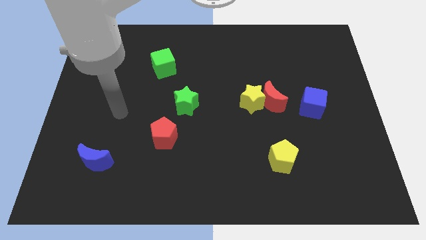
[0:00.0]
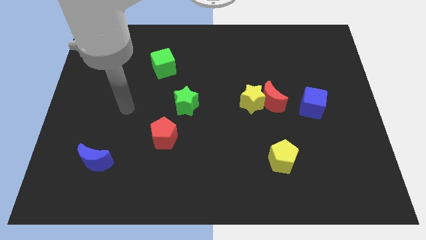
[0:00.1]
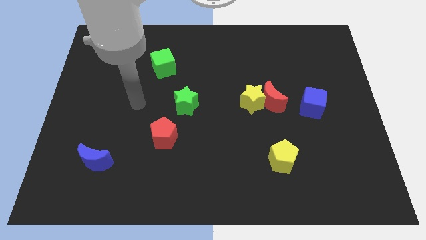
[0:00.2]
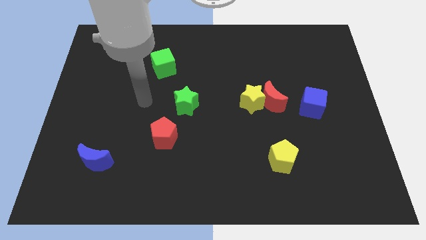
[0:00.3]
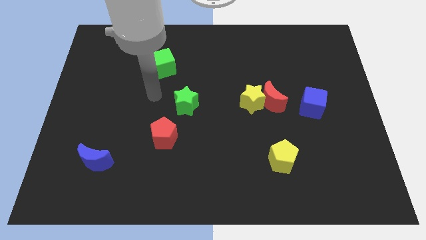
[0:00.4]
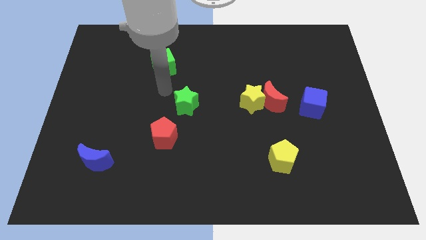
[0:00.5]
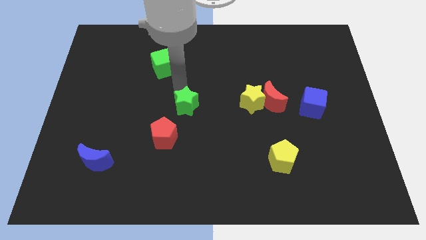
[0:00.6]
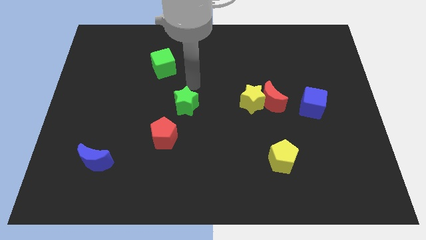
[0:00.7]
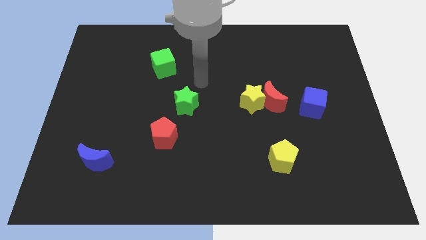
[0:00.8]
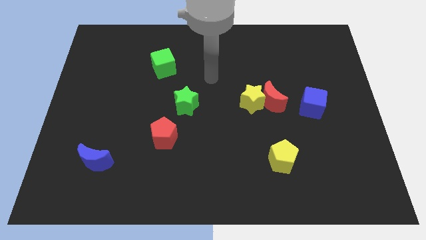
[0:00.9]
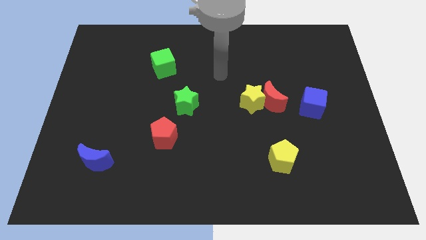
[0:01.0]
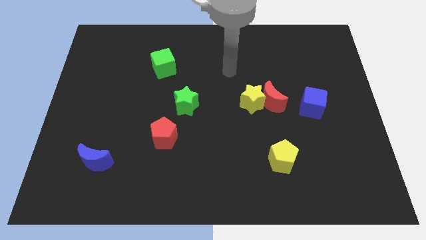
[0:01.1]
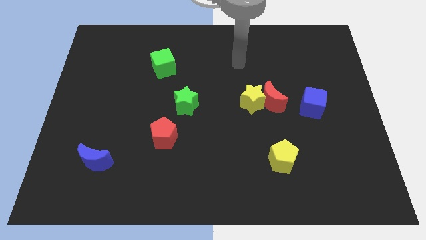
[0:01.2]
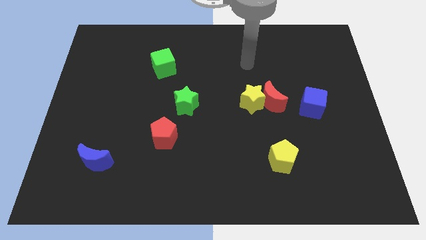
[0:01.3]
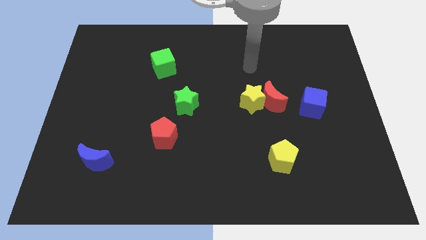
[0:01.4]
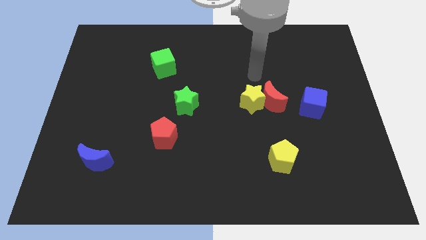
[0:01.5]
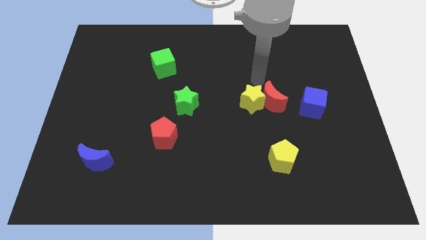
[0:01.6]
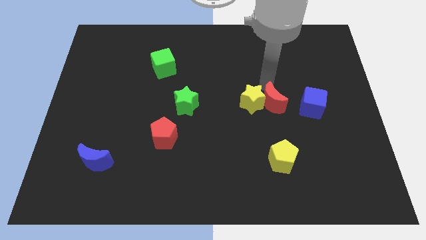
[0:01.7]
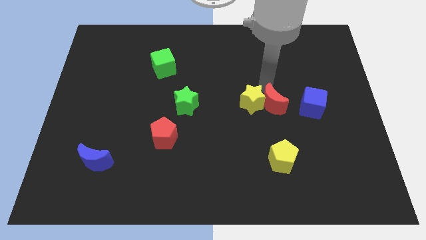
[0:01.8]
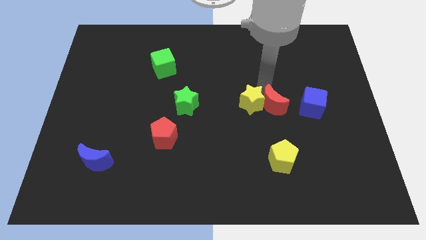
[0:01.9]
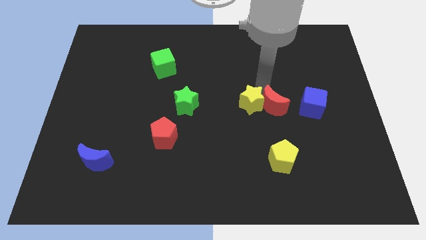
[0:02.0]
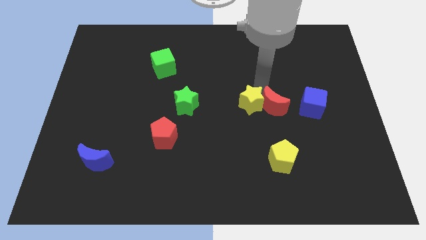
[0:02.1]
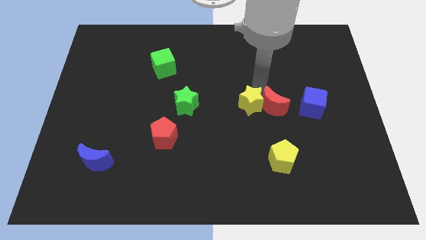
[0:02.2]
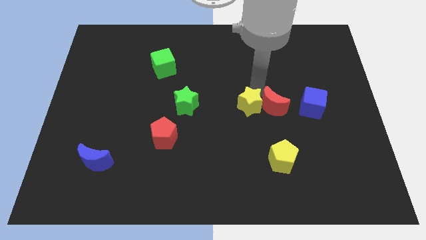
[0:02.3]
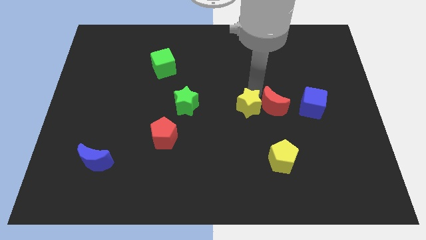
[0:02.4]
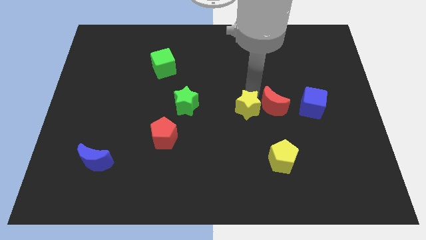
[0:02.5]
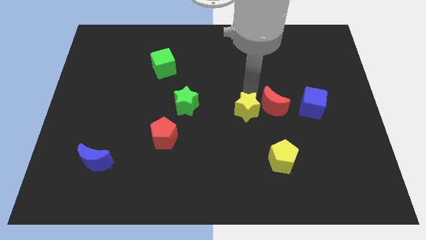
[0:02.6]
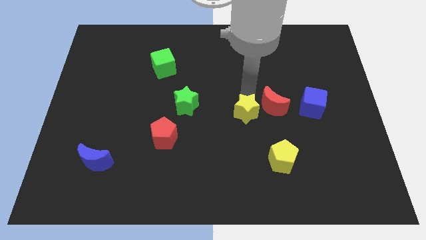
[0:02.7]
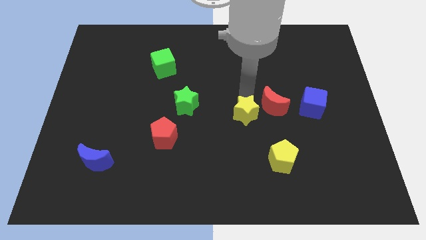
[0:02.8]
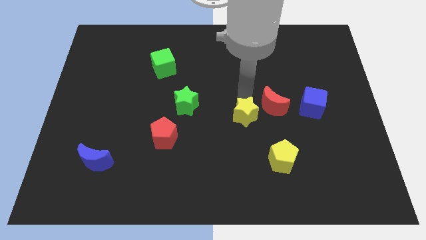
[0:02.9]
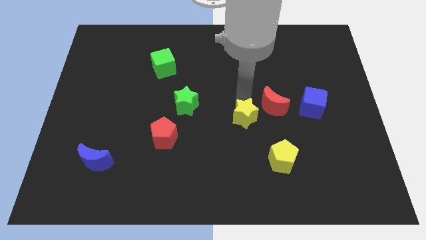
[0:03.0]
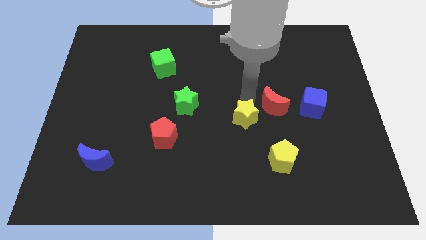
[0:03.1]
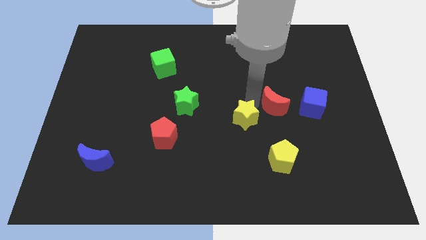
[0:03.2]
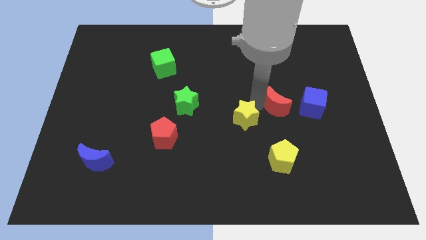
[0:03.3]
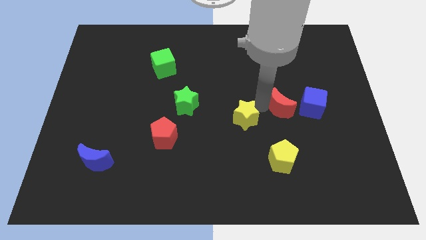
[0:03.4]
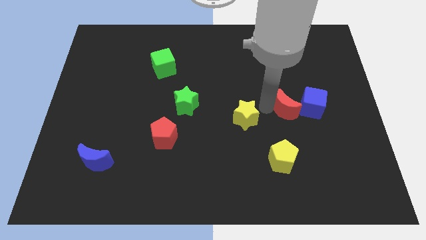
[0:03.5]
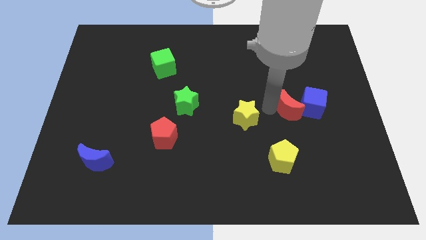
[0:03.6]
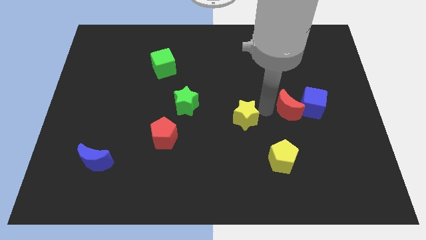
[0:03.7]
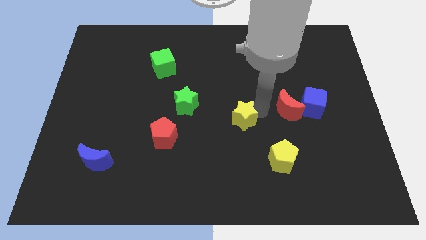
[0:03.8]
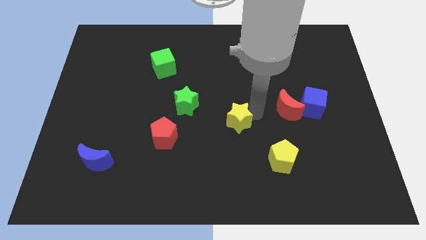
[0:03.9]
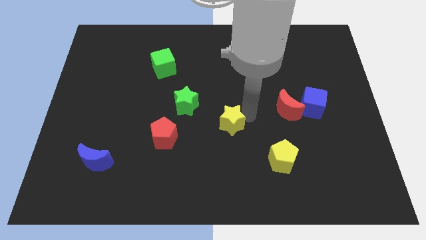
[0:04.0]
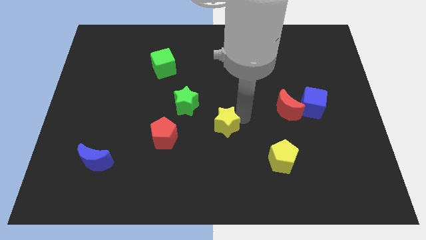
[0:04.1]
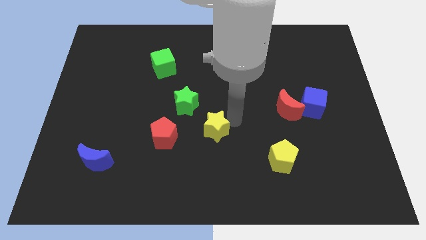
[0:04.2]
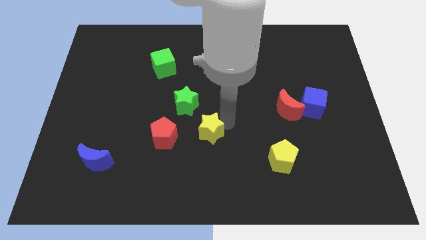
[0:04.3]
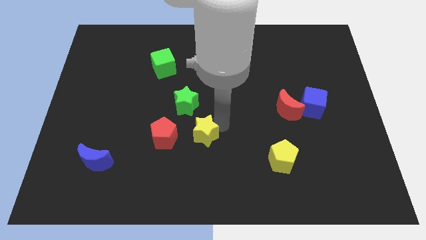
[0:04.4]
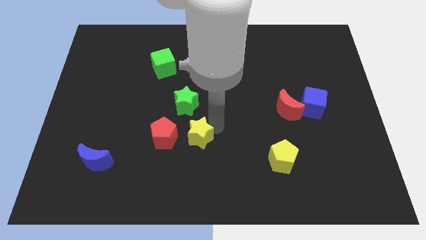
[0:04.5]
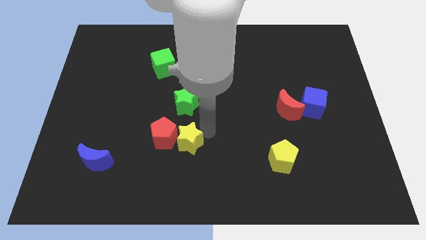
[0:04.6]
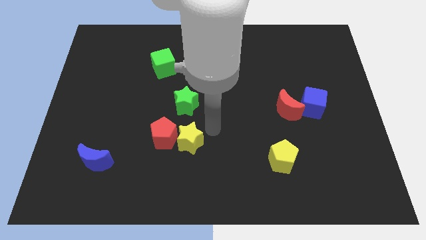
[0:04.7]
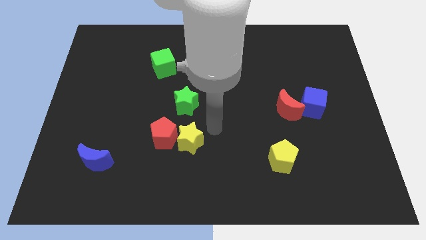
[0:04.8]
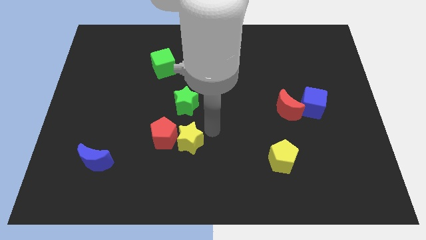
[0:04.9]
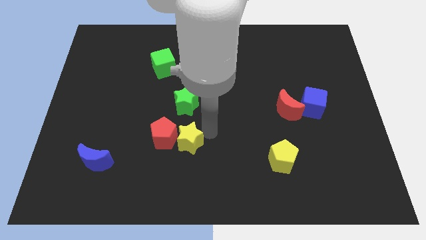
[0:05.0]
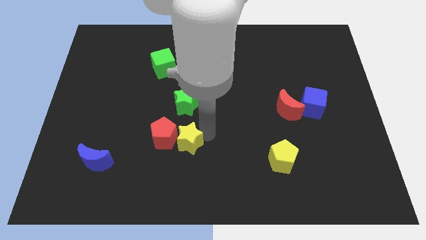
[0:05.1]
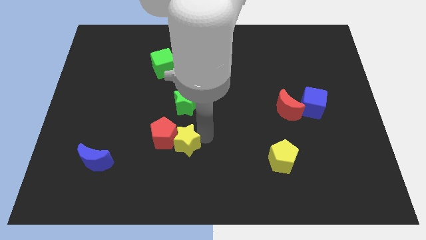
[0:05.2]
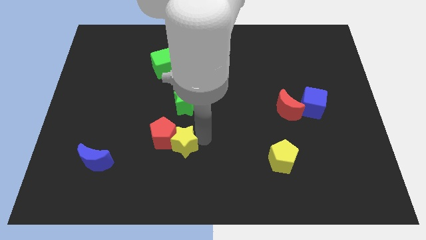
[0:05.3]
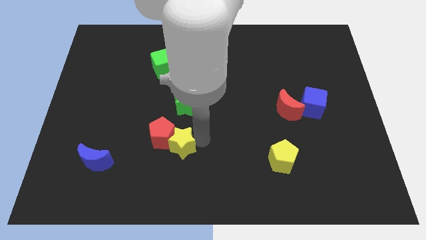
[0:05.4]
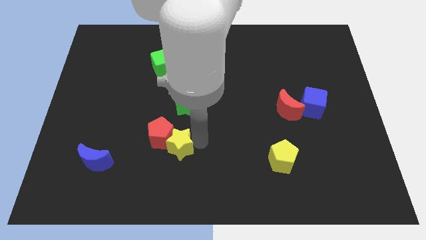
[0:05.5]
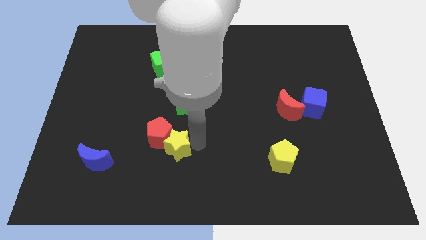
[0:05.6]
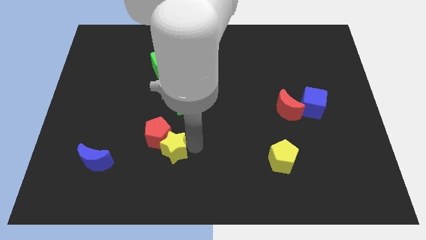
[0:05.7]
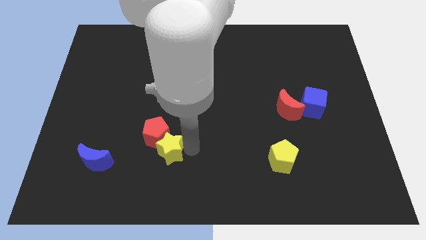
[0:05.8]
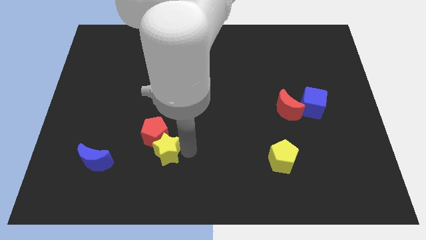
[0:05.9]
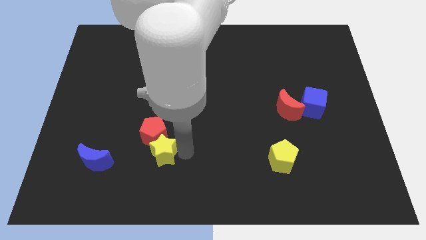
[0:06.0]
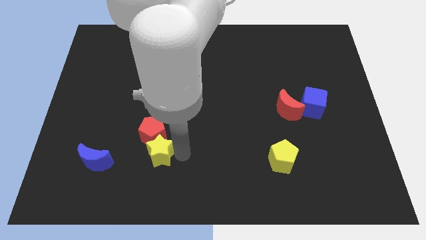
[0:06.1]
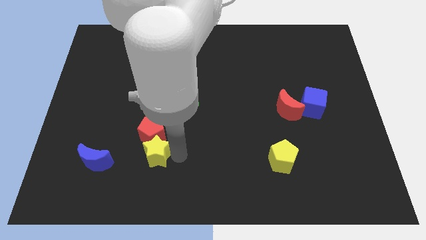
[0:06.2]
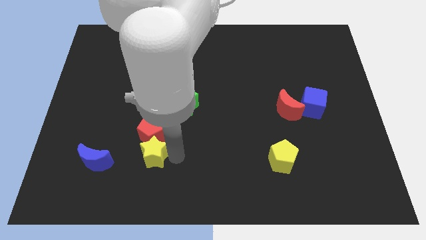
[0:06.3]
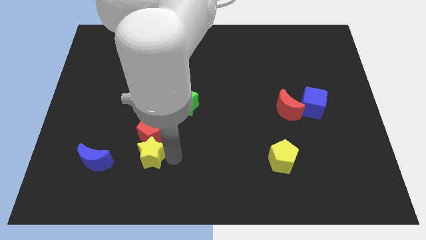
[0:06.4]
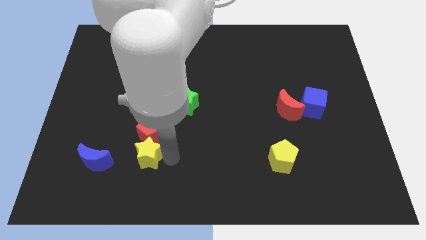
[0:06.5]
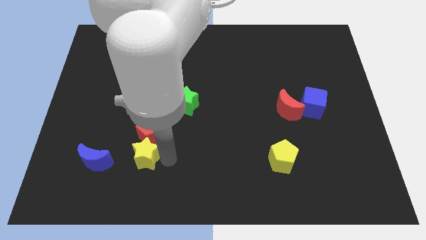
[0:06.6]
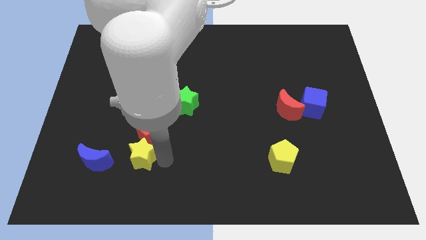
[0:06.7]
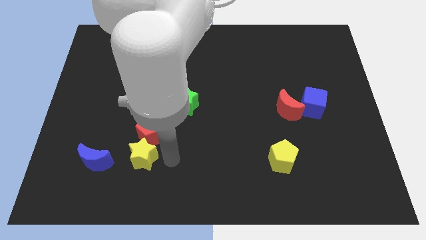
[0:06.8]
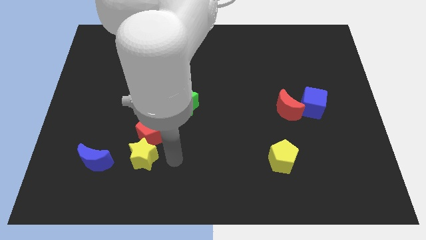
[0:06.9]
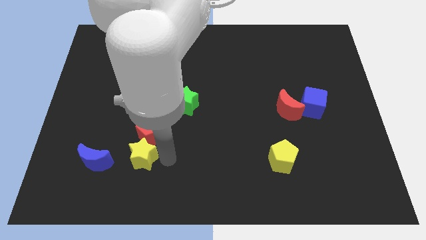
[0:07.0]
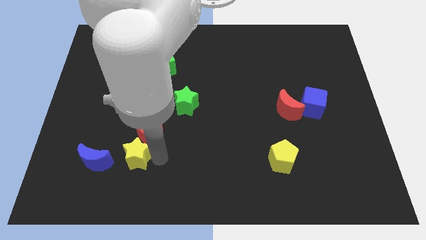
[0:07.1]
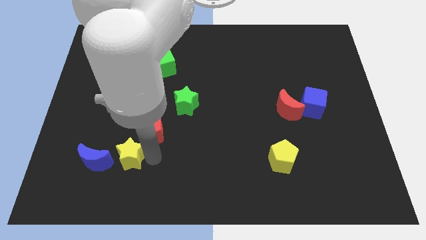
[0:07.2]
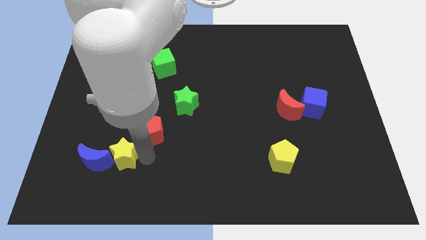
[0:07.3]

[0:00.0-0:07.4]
slide the yellow star to the blue moon
